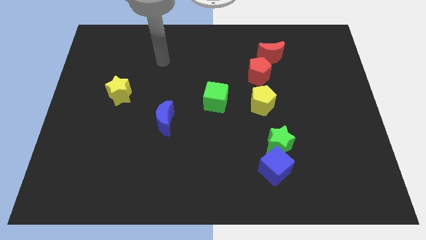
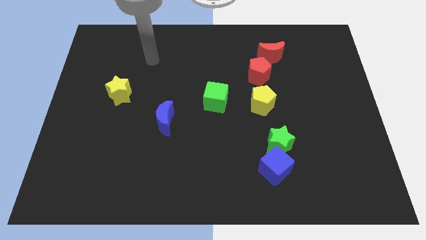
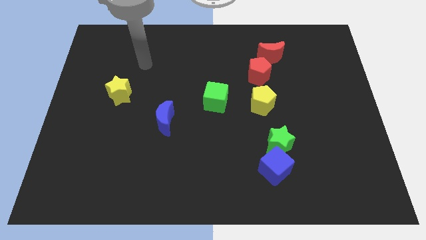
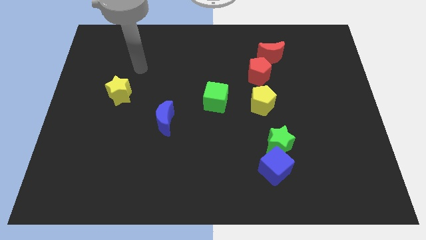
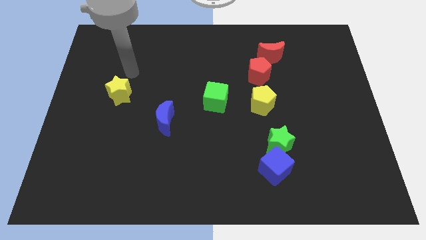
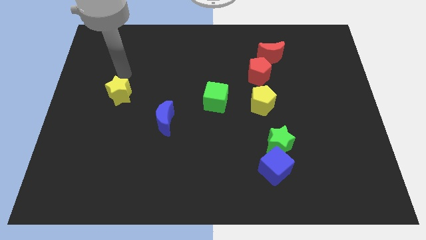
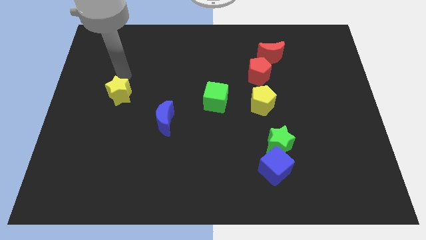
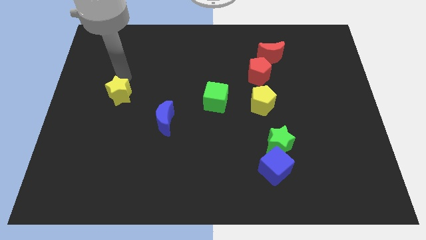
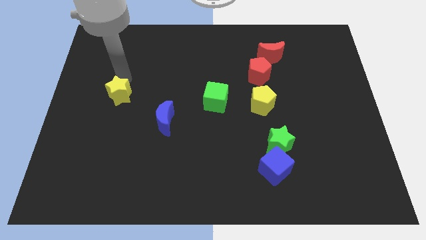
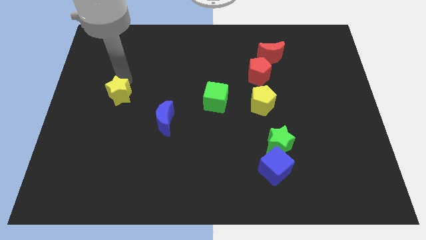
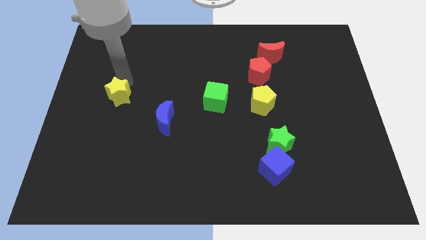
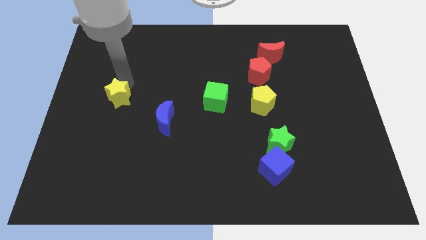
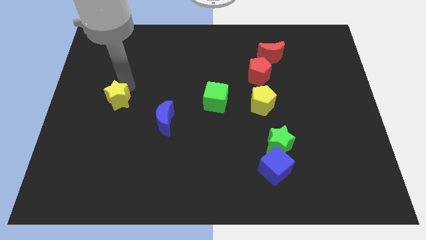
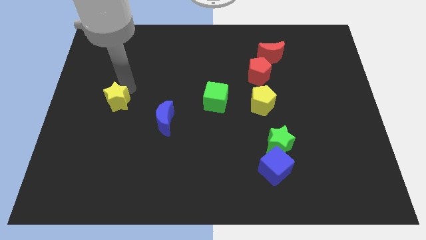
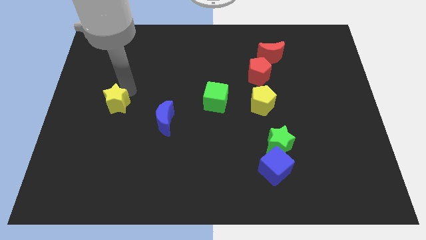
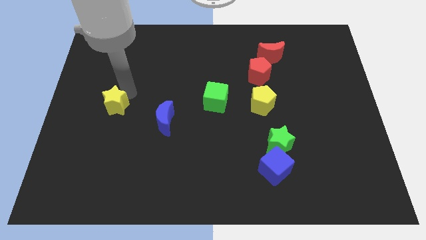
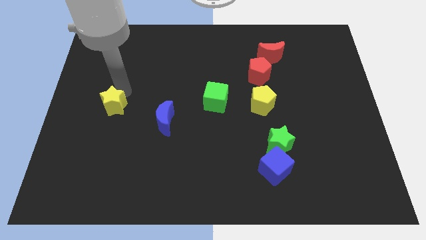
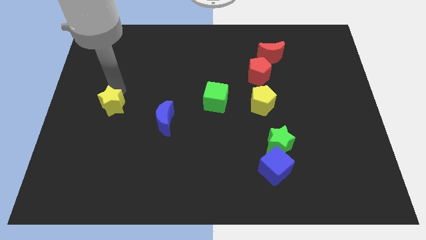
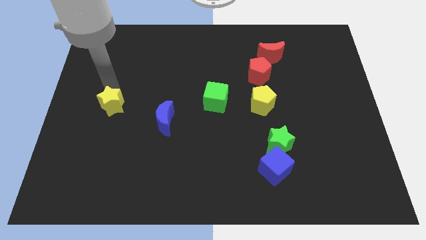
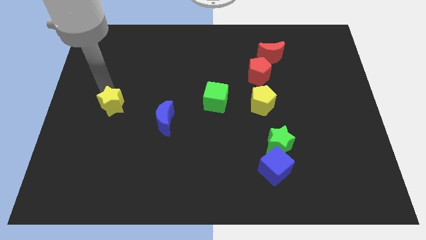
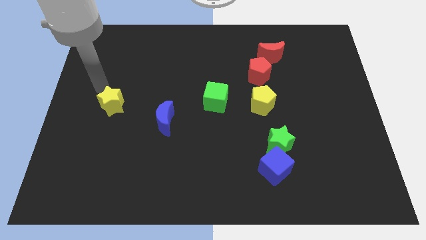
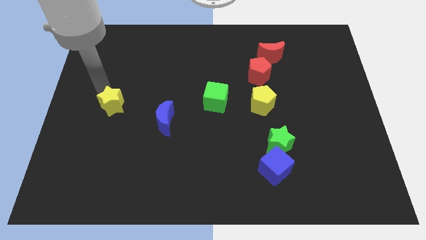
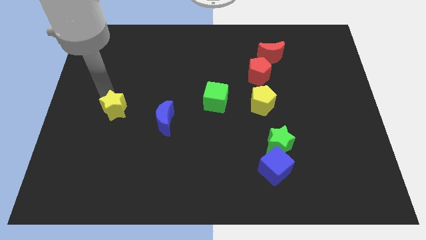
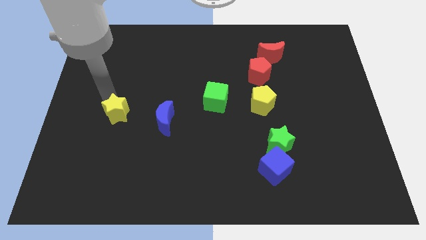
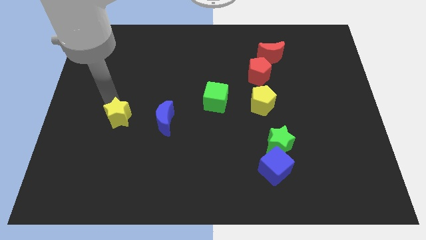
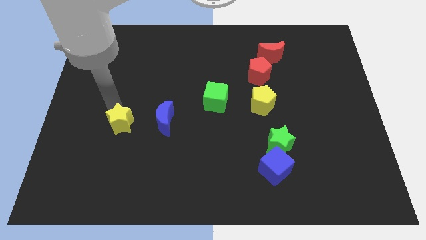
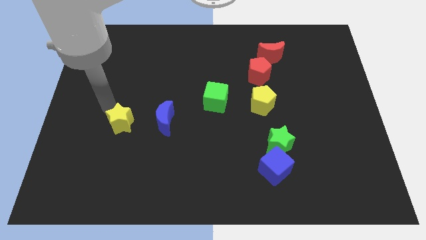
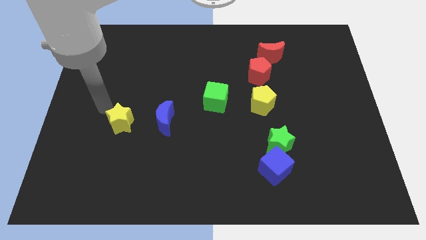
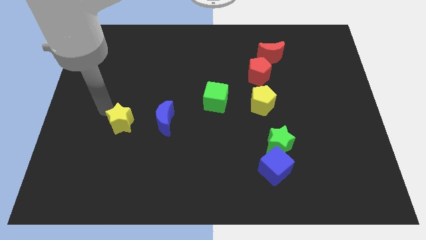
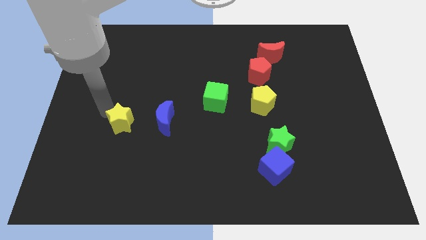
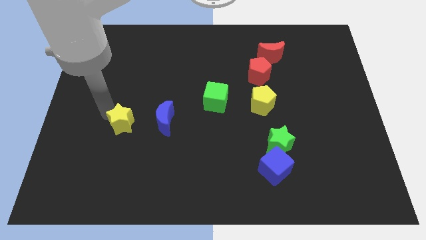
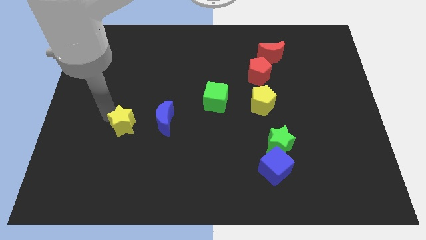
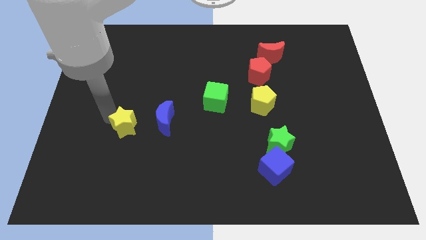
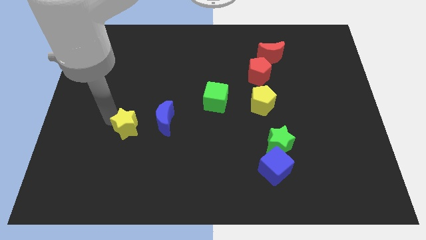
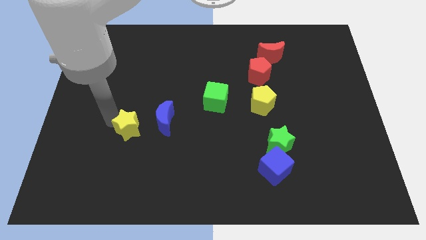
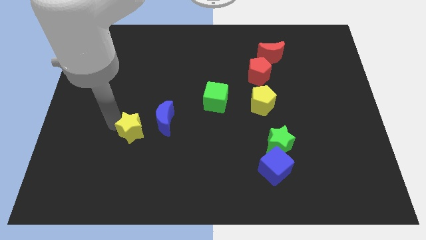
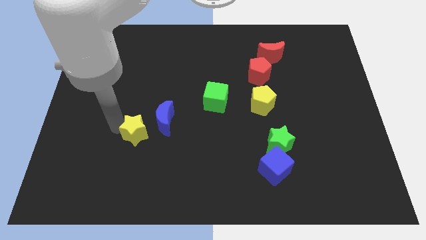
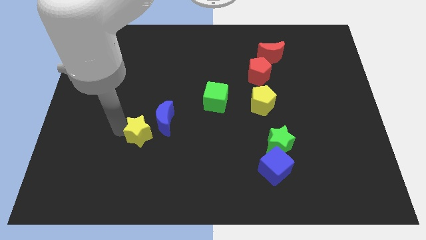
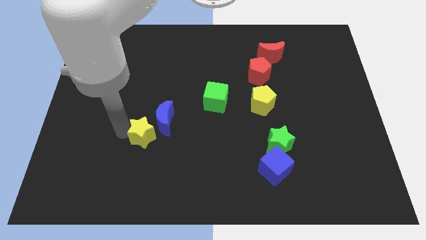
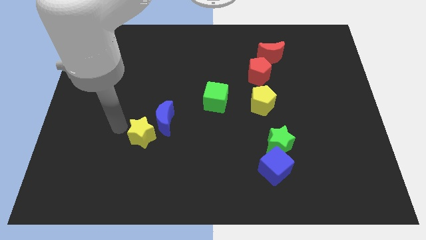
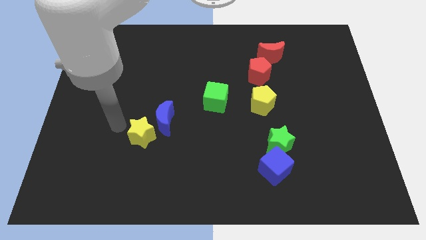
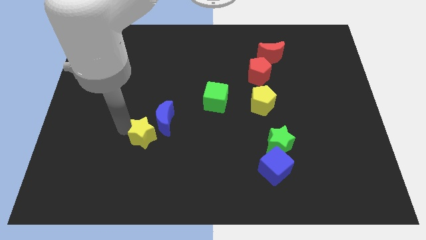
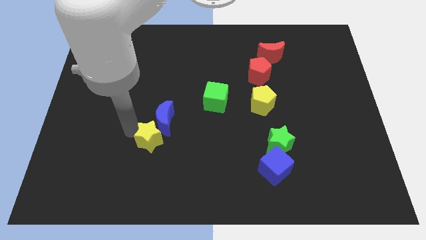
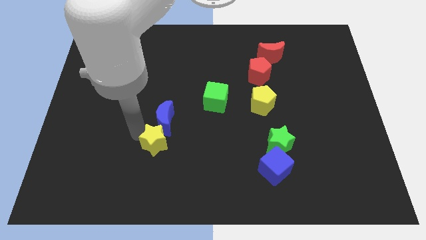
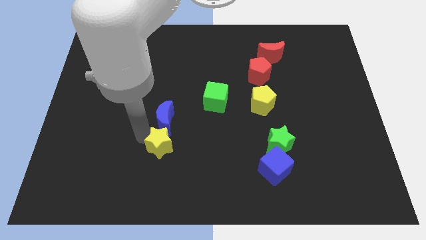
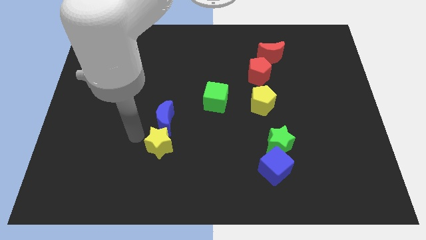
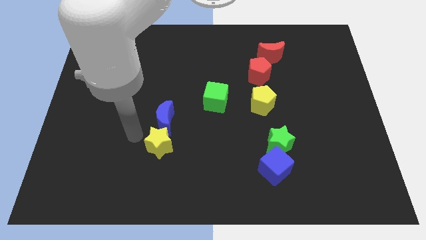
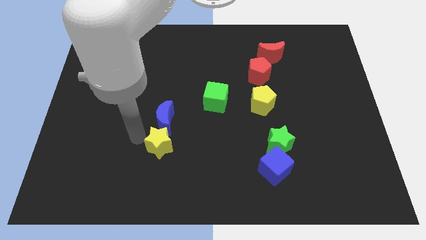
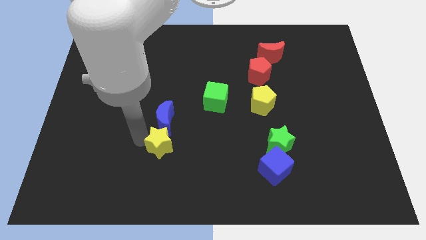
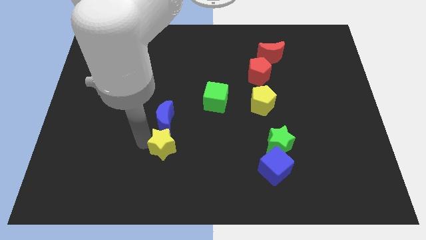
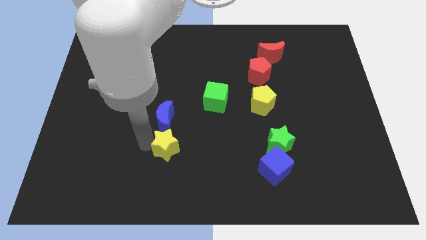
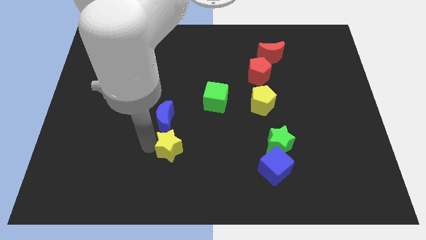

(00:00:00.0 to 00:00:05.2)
move the yellow star downwards and to the right

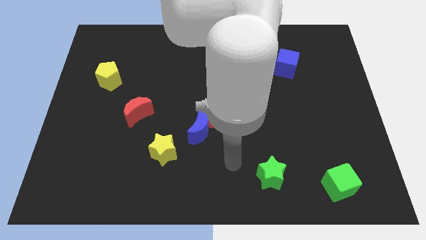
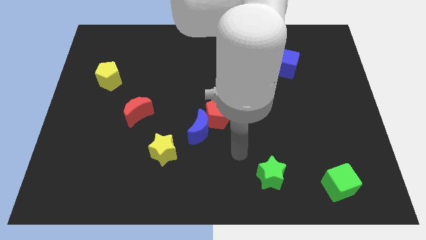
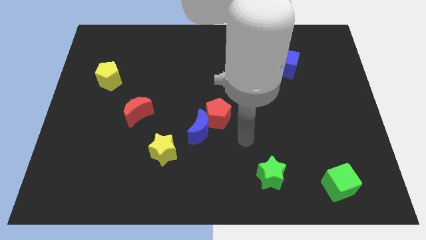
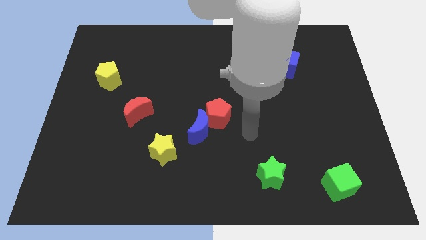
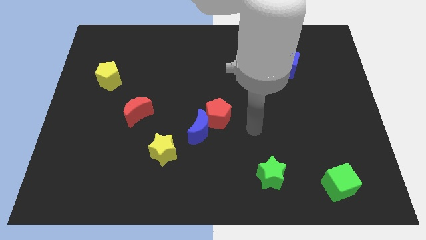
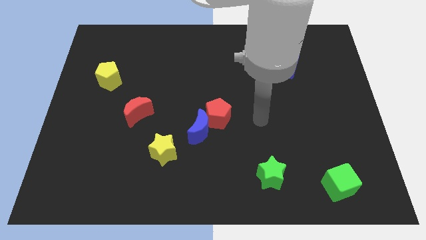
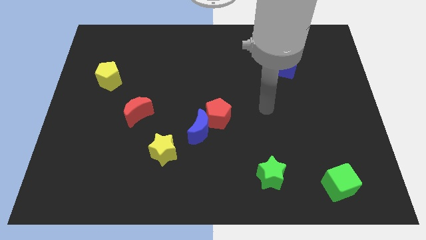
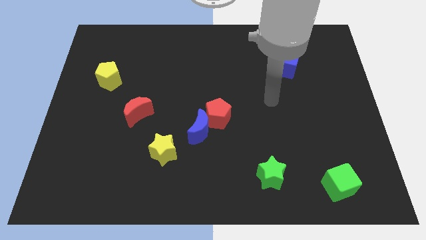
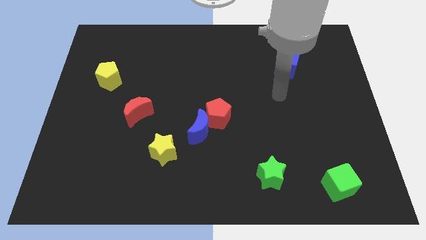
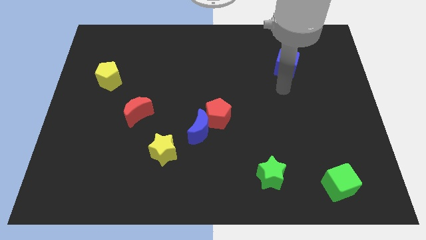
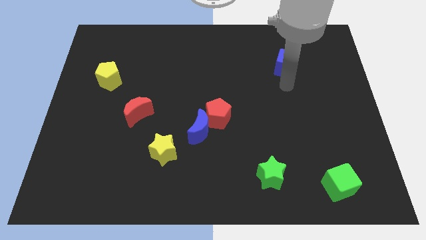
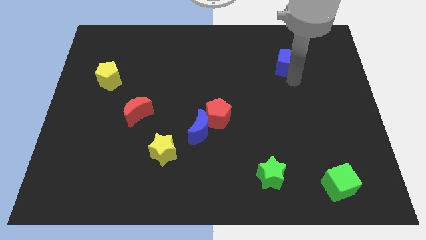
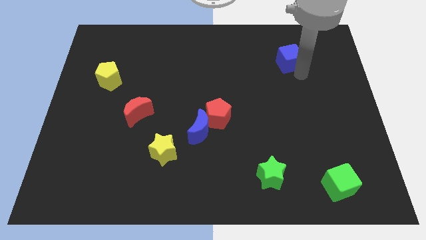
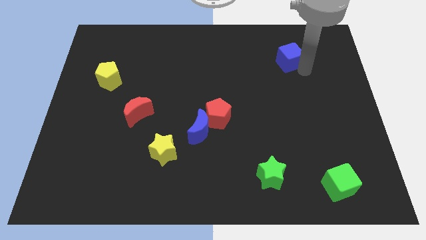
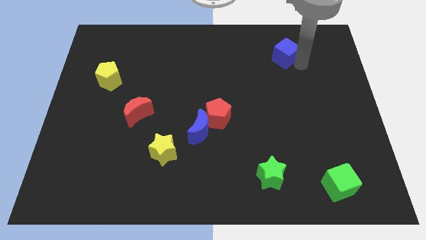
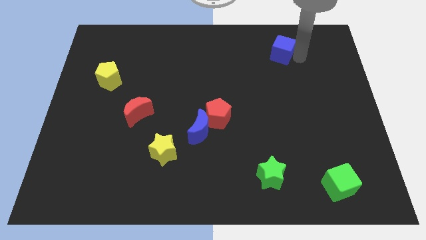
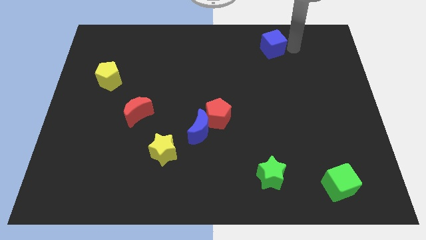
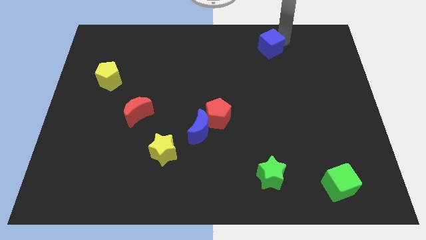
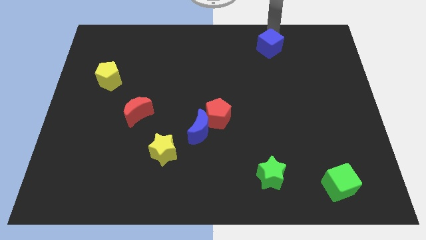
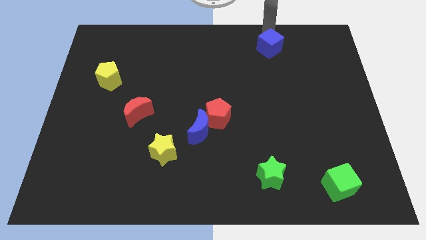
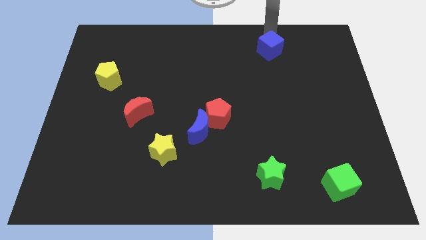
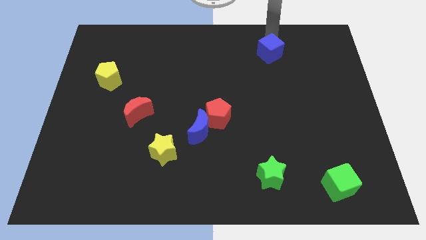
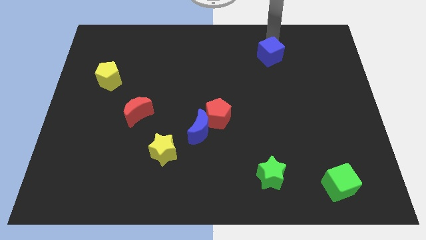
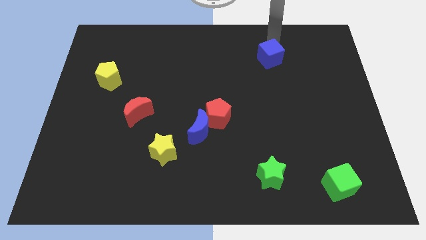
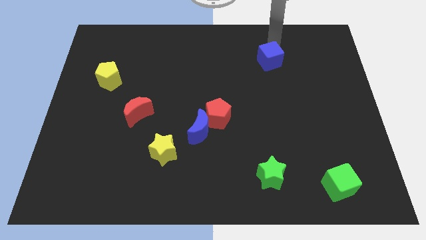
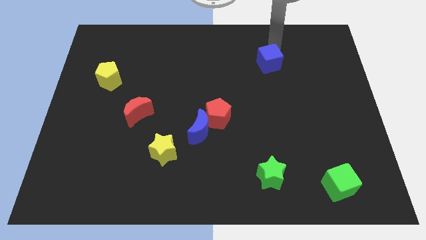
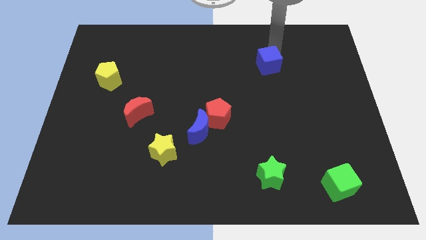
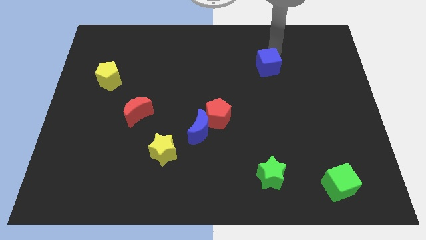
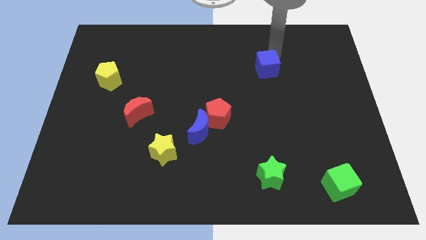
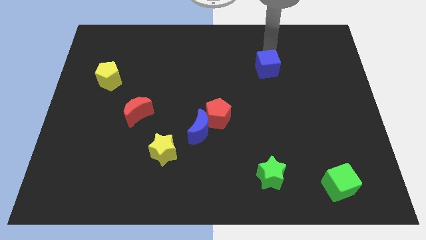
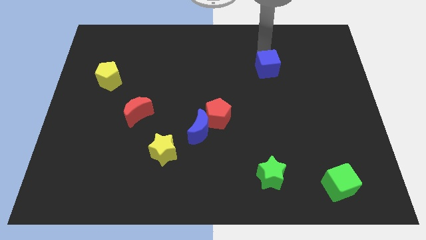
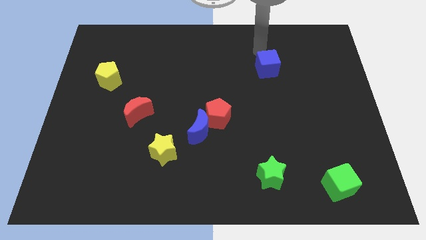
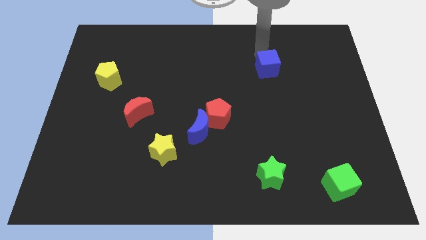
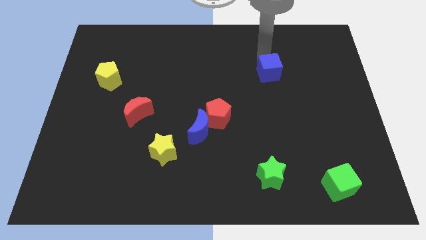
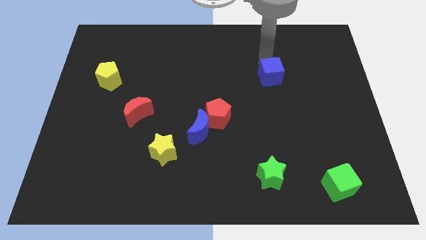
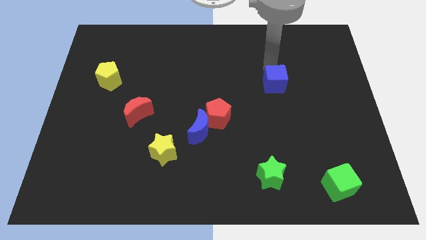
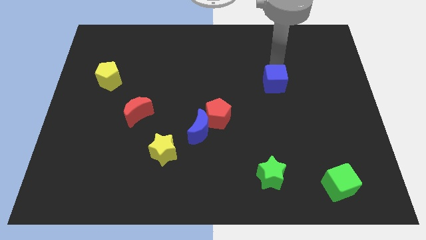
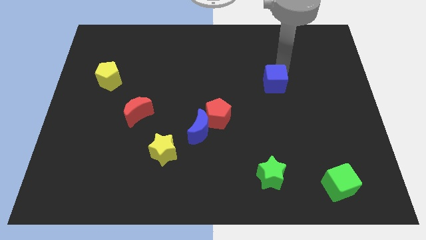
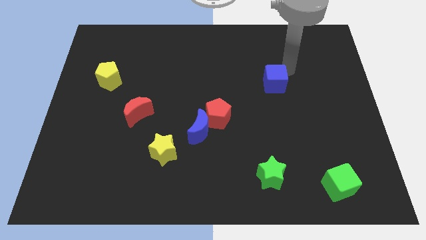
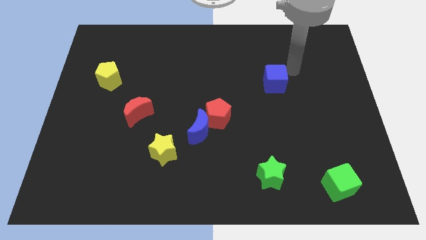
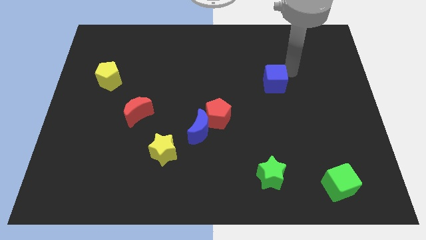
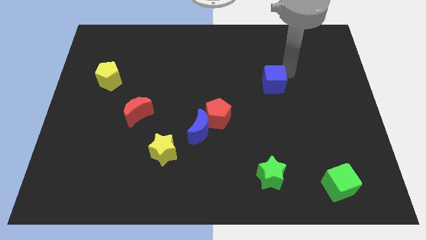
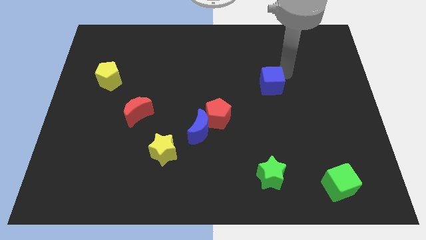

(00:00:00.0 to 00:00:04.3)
push the blue cube down and left diagonally slightly
